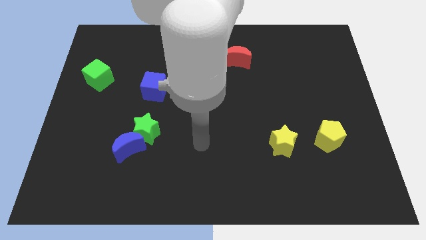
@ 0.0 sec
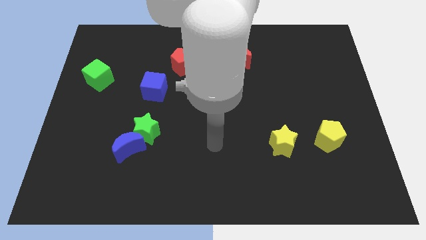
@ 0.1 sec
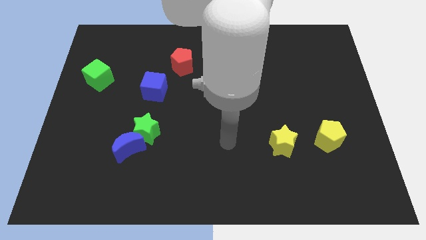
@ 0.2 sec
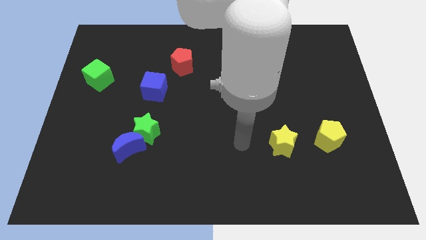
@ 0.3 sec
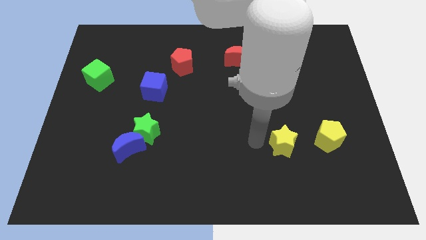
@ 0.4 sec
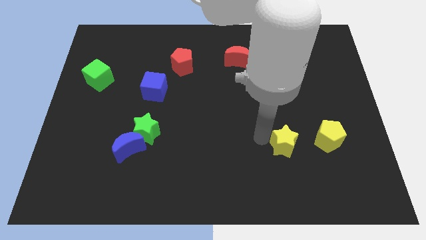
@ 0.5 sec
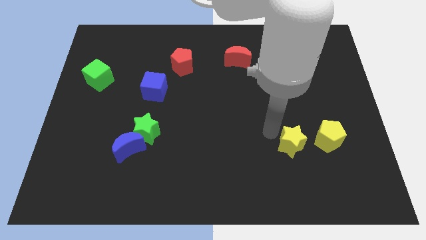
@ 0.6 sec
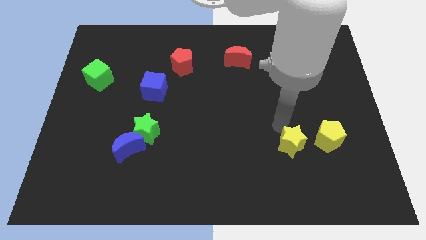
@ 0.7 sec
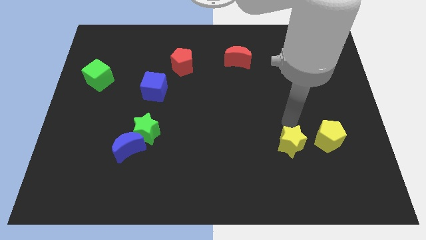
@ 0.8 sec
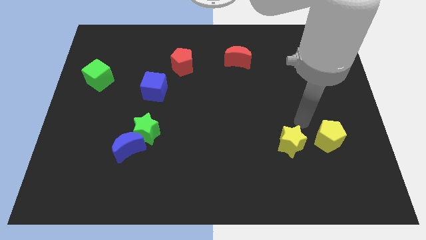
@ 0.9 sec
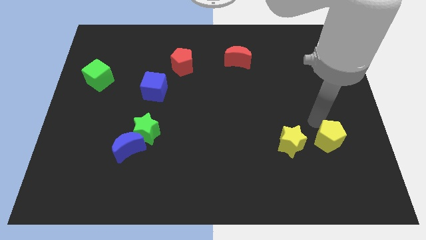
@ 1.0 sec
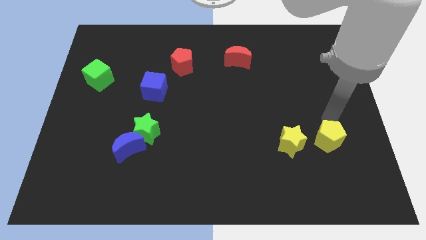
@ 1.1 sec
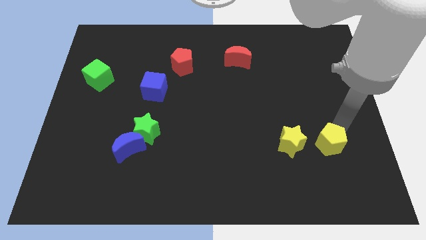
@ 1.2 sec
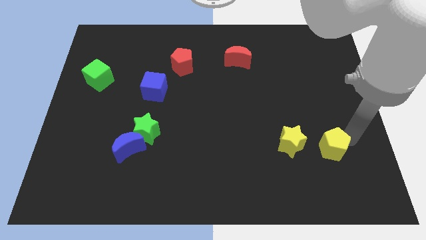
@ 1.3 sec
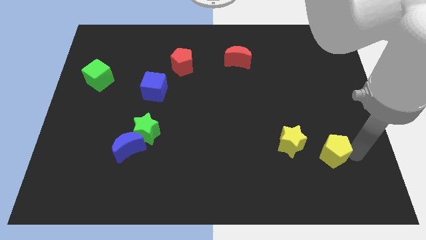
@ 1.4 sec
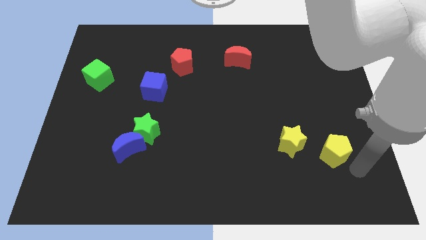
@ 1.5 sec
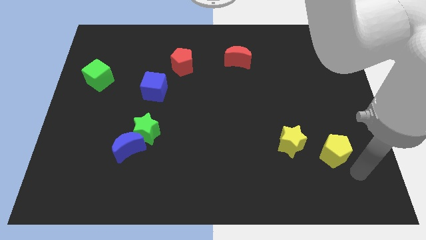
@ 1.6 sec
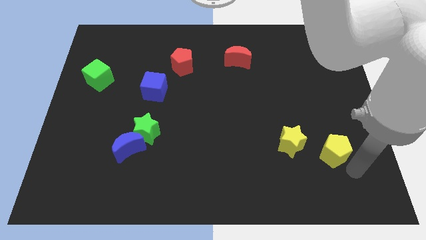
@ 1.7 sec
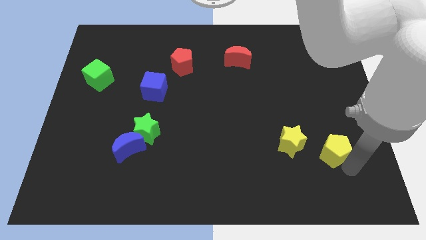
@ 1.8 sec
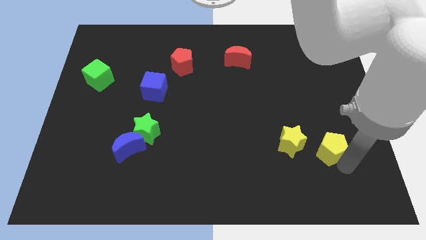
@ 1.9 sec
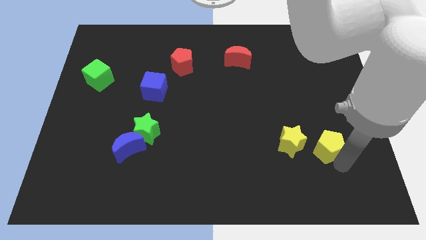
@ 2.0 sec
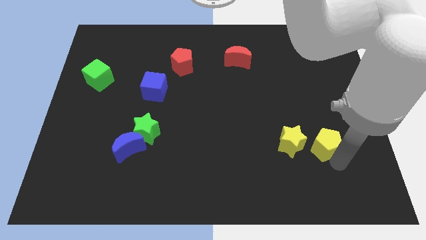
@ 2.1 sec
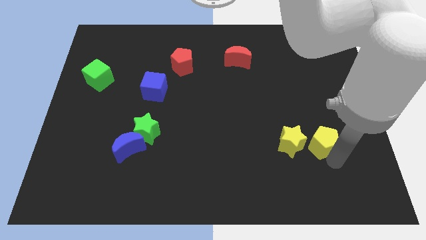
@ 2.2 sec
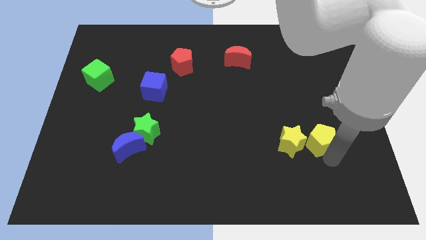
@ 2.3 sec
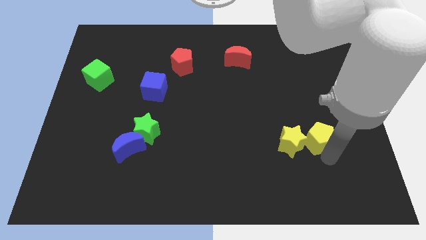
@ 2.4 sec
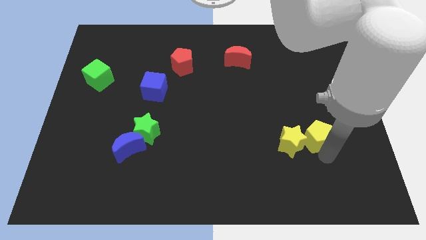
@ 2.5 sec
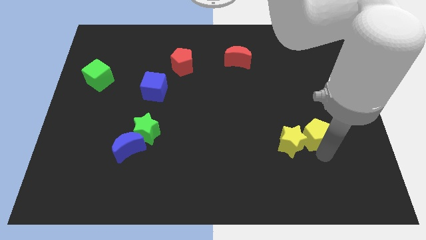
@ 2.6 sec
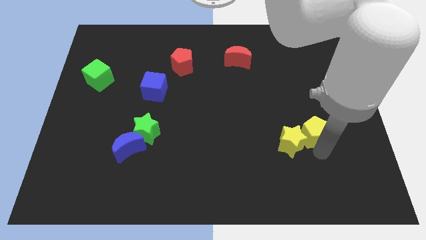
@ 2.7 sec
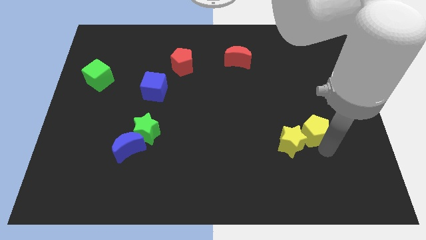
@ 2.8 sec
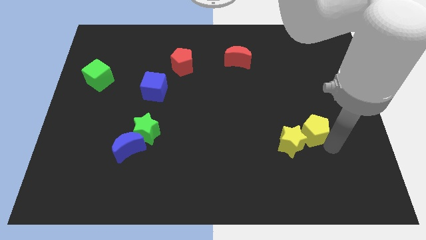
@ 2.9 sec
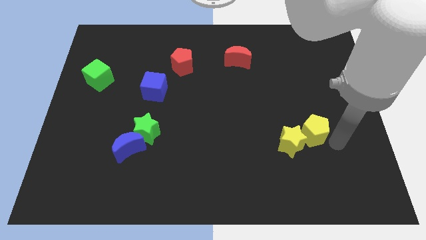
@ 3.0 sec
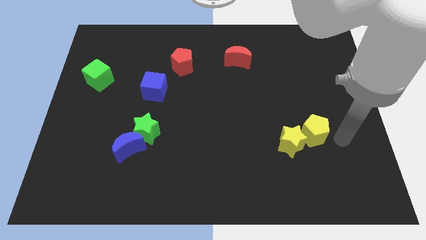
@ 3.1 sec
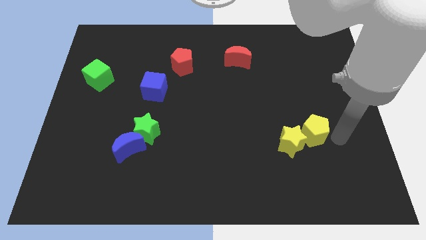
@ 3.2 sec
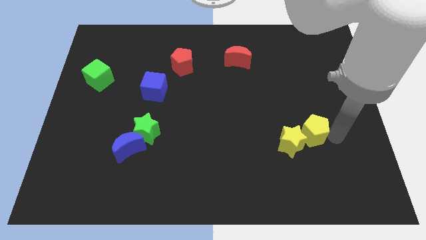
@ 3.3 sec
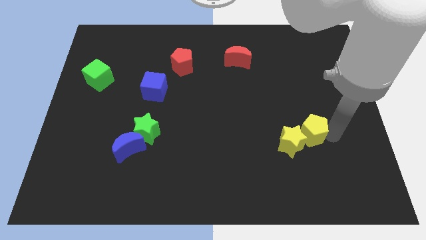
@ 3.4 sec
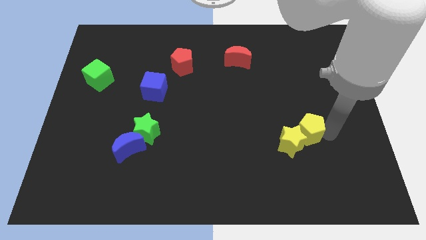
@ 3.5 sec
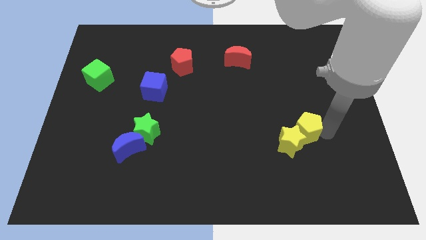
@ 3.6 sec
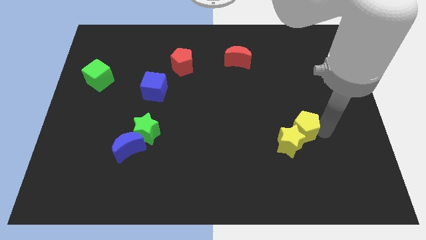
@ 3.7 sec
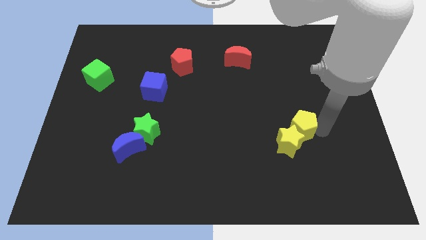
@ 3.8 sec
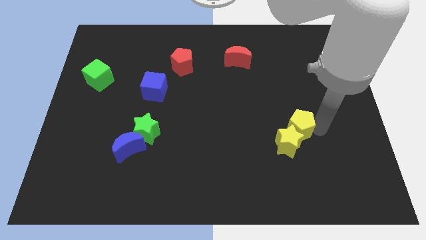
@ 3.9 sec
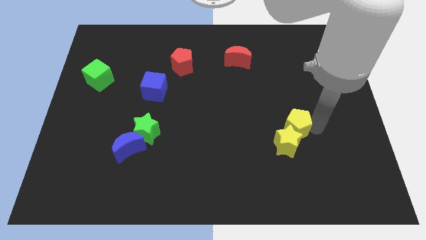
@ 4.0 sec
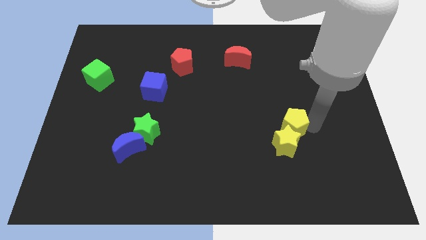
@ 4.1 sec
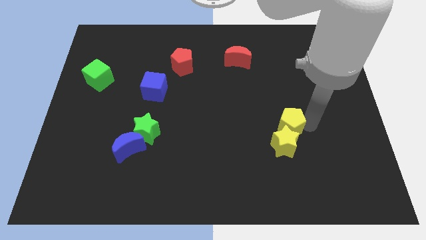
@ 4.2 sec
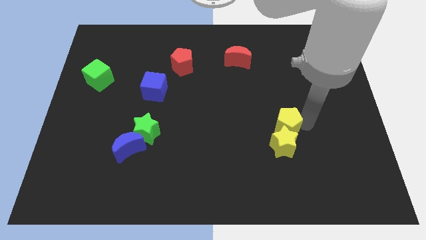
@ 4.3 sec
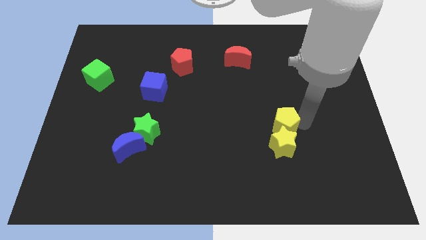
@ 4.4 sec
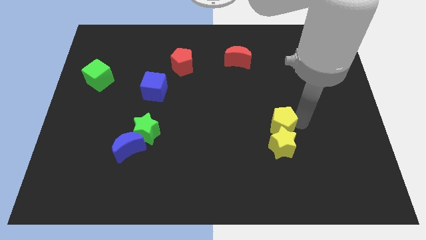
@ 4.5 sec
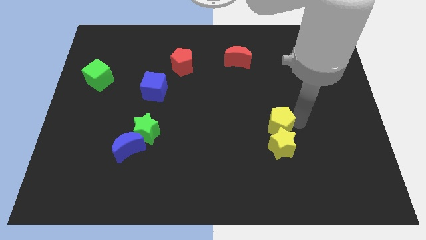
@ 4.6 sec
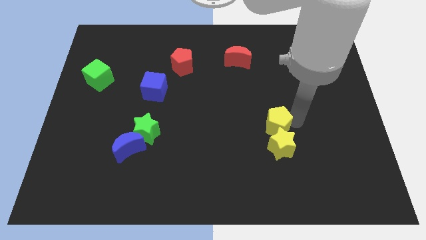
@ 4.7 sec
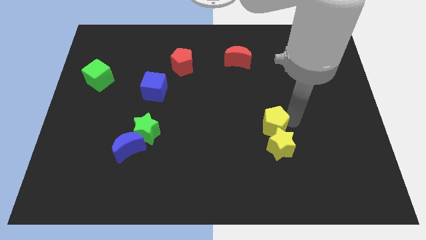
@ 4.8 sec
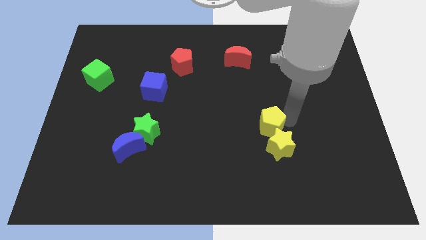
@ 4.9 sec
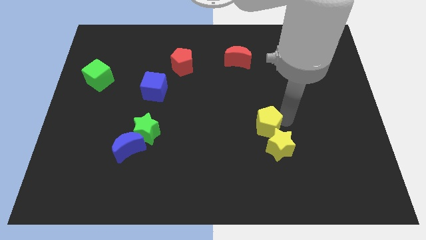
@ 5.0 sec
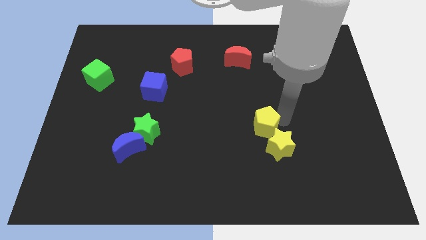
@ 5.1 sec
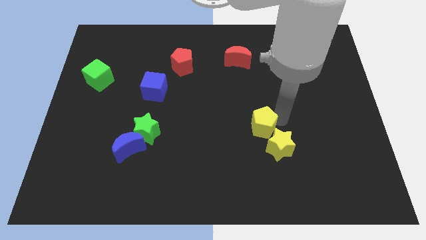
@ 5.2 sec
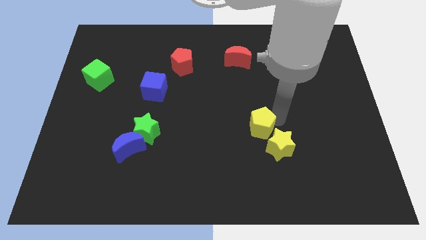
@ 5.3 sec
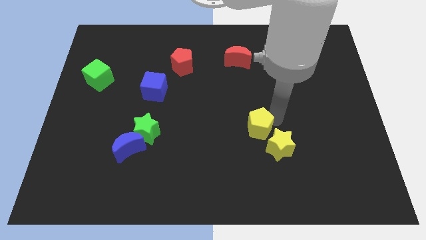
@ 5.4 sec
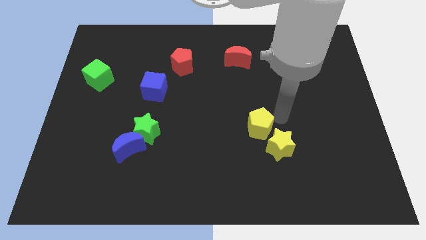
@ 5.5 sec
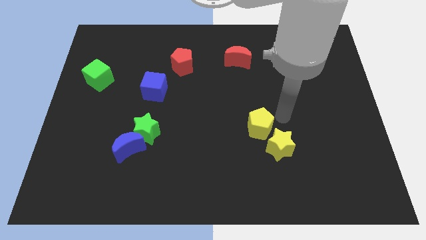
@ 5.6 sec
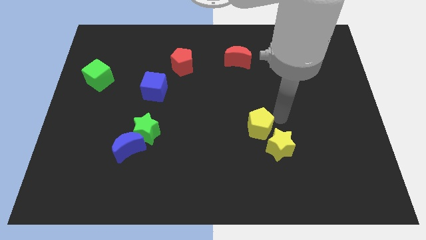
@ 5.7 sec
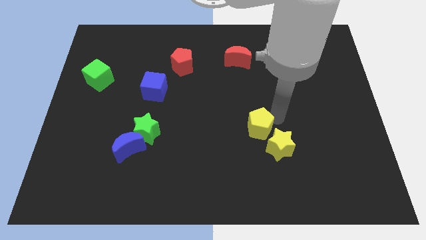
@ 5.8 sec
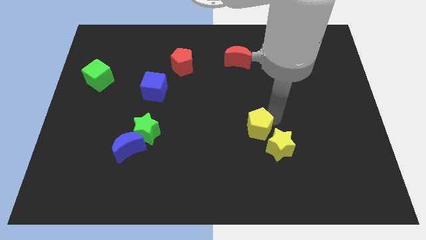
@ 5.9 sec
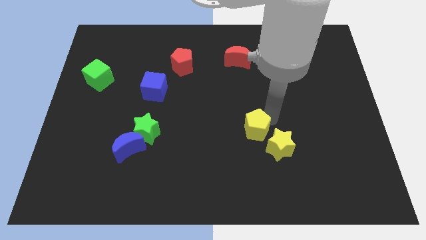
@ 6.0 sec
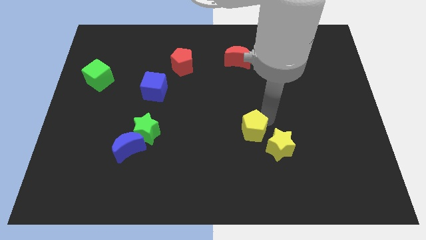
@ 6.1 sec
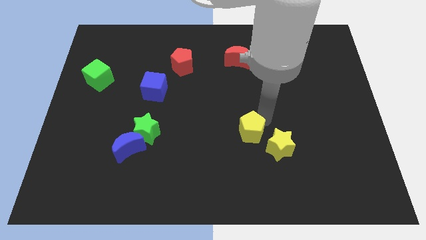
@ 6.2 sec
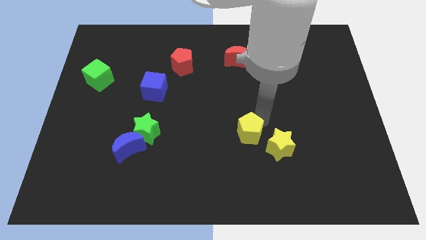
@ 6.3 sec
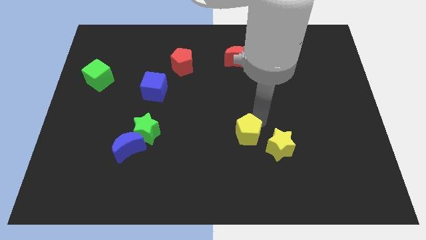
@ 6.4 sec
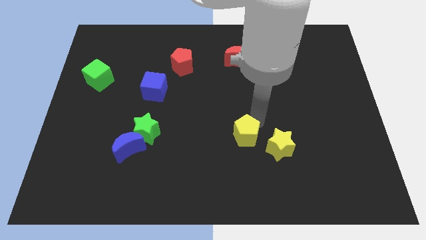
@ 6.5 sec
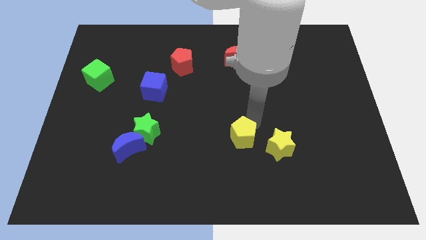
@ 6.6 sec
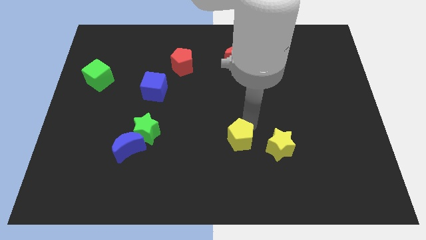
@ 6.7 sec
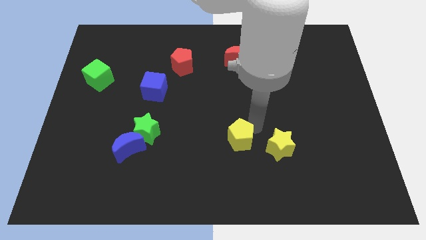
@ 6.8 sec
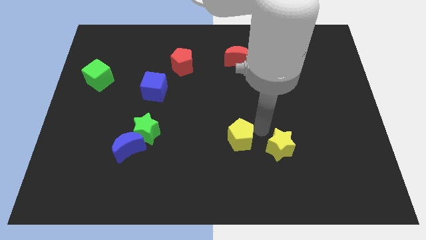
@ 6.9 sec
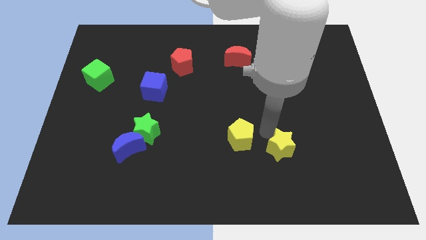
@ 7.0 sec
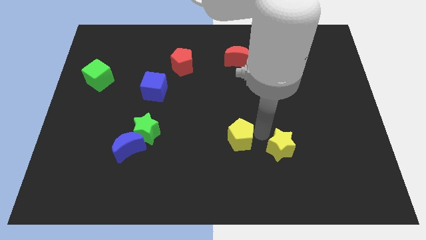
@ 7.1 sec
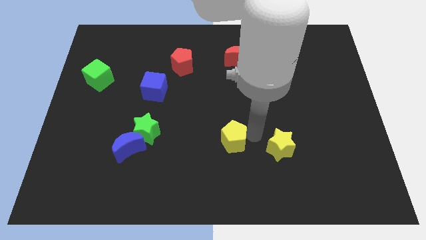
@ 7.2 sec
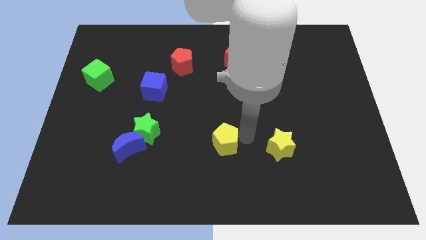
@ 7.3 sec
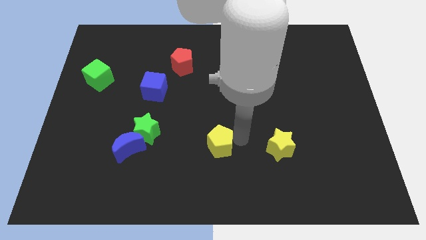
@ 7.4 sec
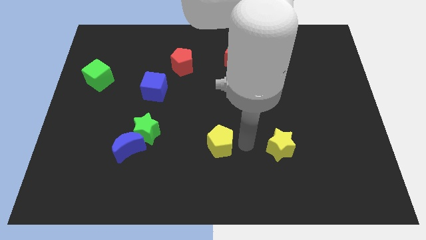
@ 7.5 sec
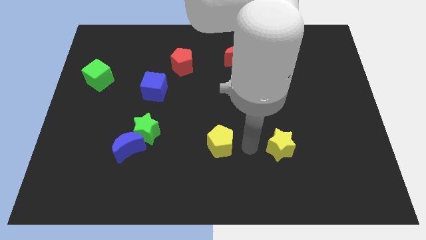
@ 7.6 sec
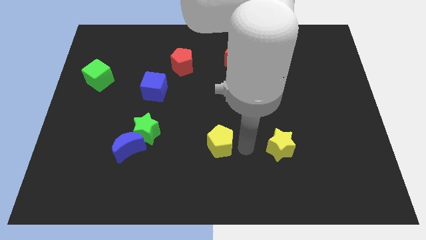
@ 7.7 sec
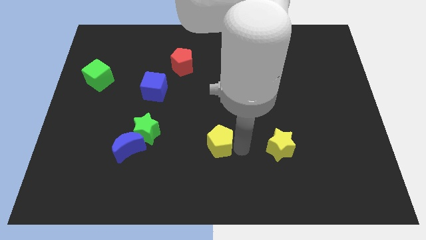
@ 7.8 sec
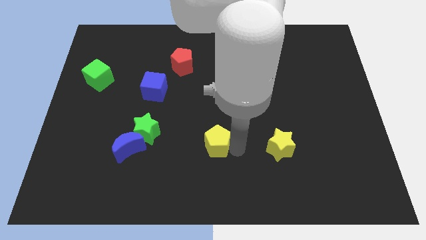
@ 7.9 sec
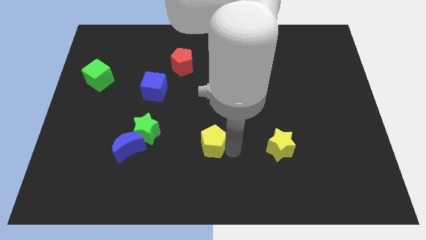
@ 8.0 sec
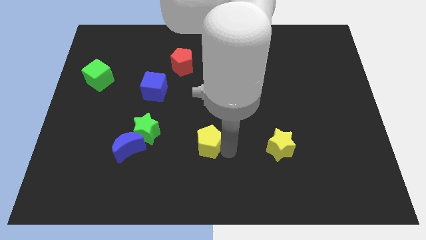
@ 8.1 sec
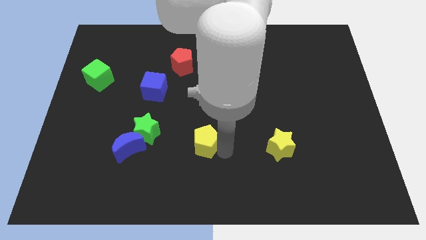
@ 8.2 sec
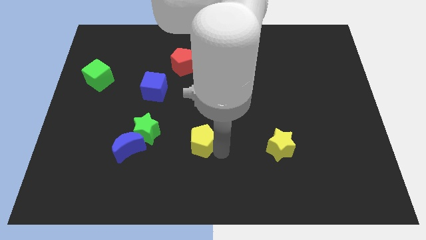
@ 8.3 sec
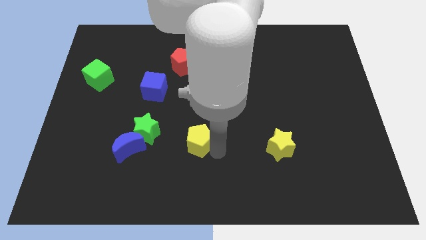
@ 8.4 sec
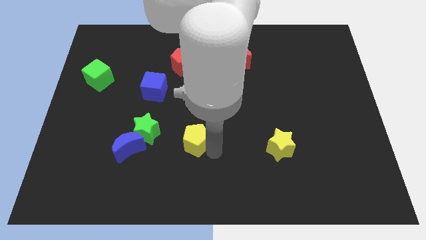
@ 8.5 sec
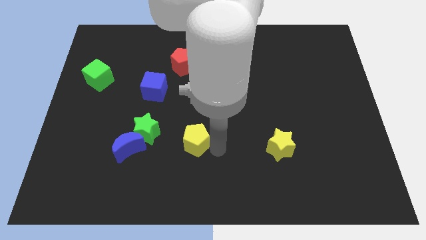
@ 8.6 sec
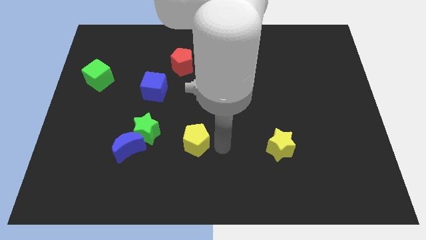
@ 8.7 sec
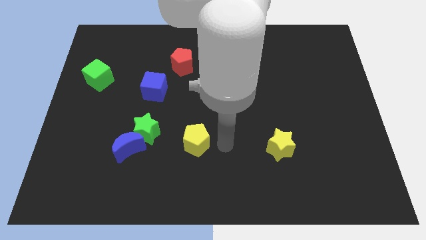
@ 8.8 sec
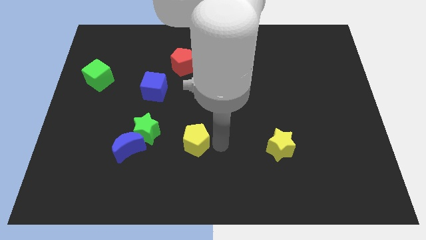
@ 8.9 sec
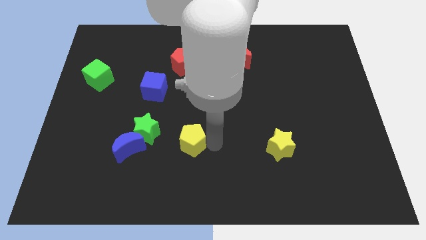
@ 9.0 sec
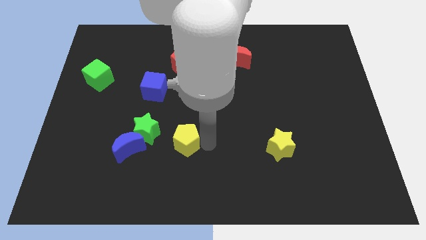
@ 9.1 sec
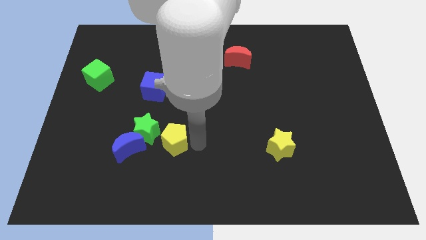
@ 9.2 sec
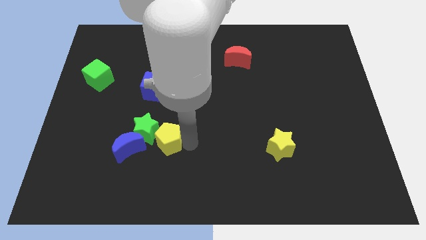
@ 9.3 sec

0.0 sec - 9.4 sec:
push the yellow pentagon next to the green star
